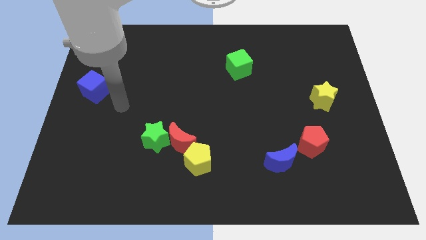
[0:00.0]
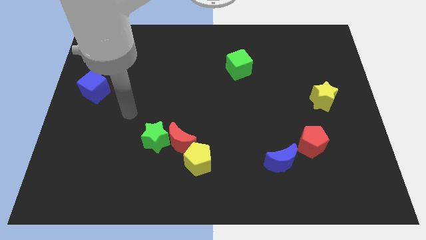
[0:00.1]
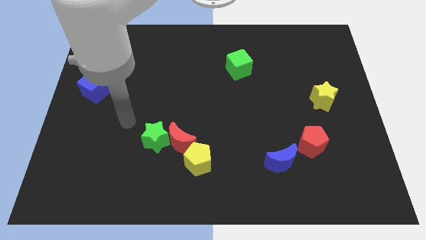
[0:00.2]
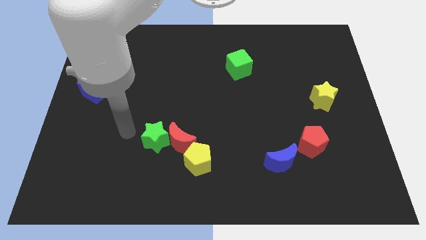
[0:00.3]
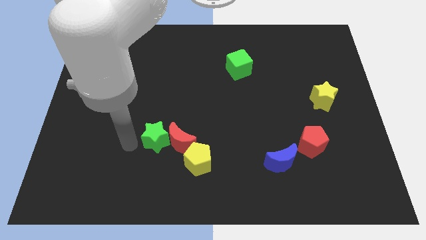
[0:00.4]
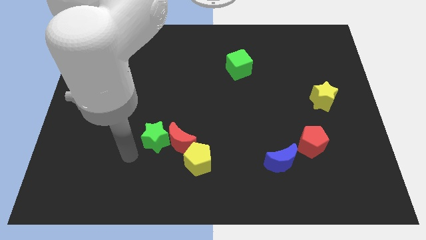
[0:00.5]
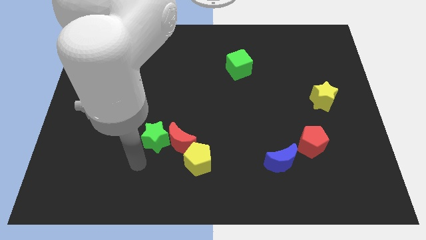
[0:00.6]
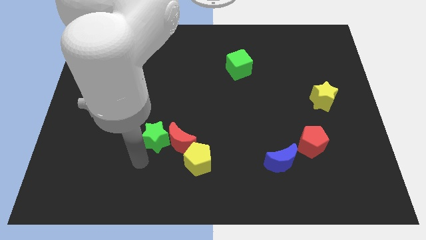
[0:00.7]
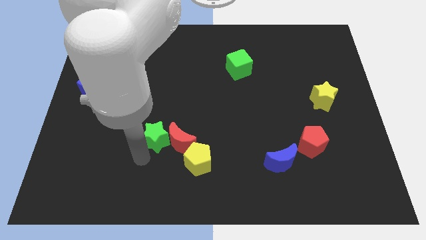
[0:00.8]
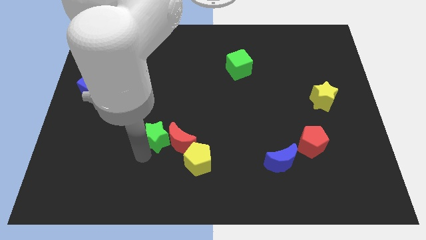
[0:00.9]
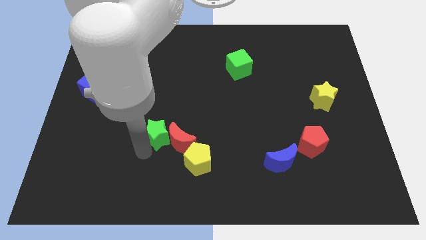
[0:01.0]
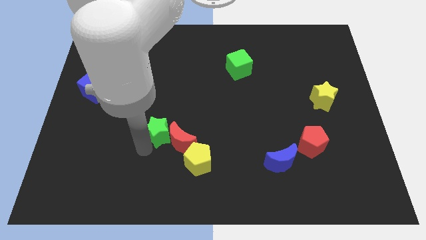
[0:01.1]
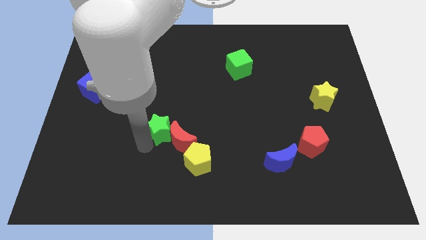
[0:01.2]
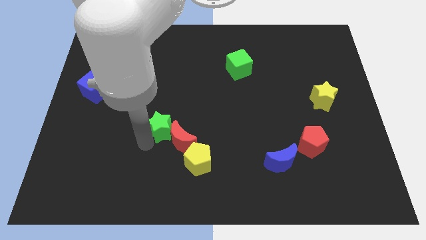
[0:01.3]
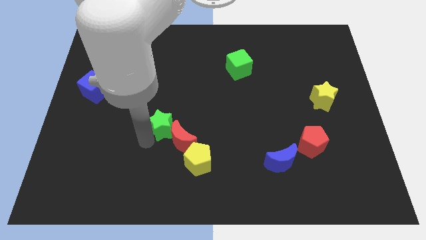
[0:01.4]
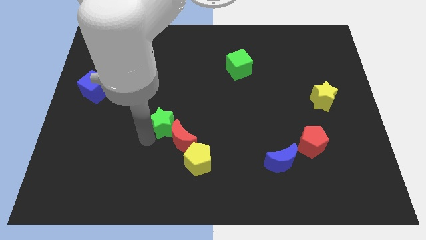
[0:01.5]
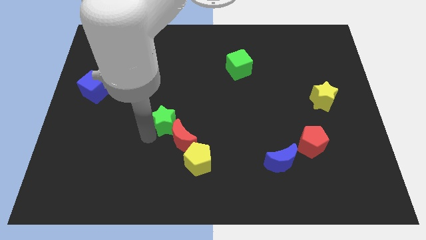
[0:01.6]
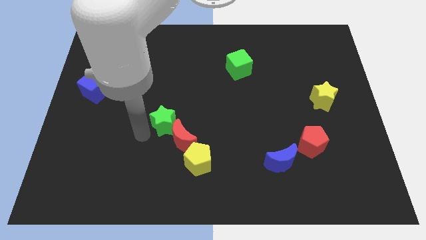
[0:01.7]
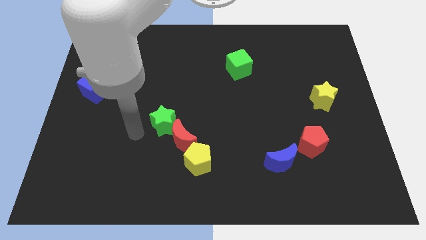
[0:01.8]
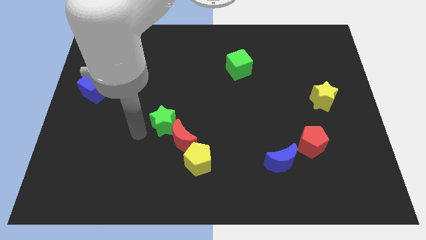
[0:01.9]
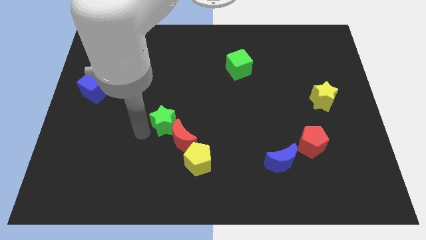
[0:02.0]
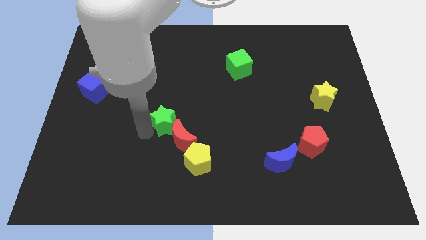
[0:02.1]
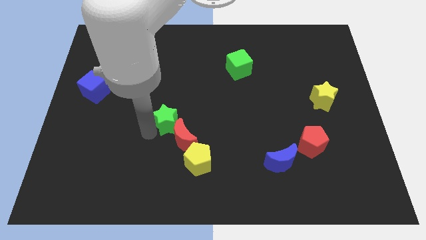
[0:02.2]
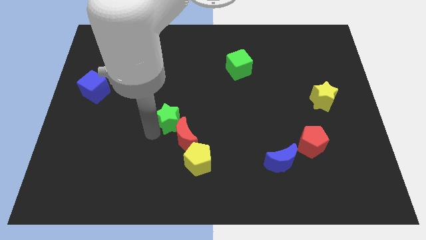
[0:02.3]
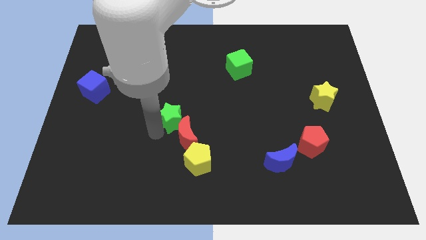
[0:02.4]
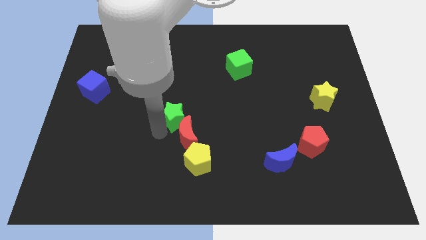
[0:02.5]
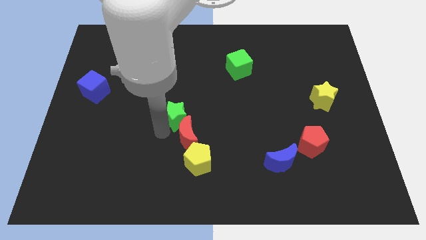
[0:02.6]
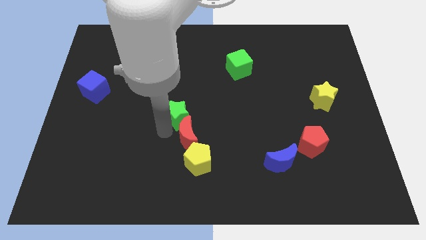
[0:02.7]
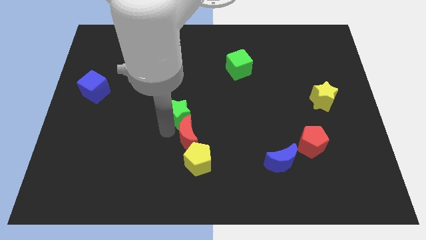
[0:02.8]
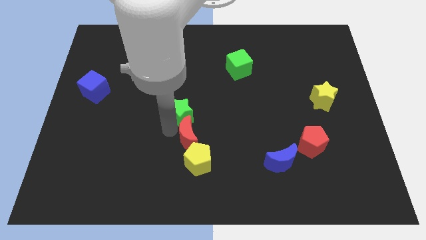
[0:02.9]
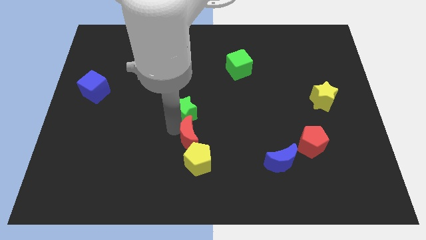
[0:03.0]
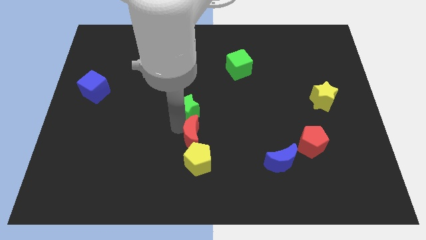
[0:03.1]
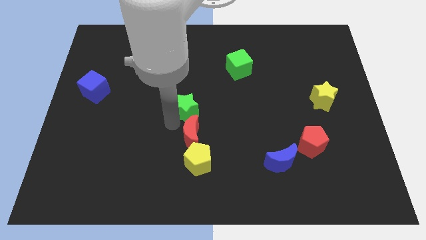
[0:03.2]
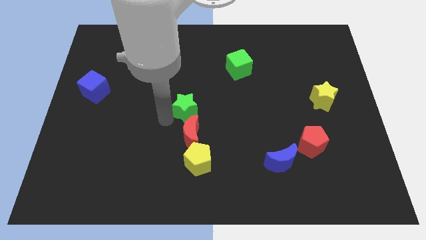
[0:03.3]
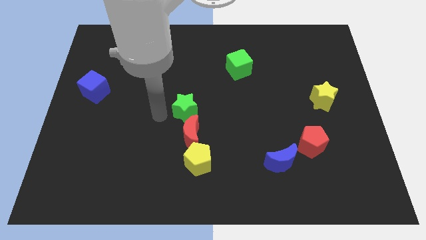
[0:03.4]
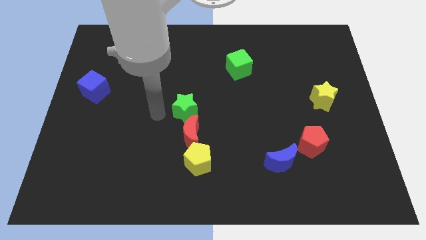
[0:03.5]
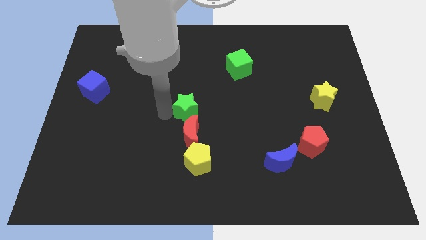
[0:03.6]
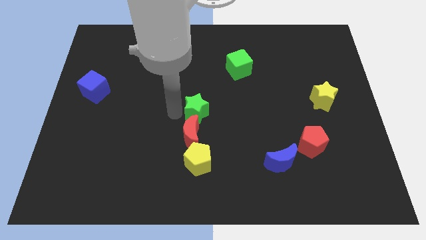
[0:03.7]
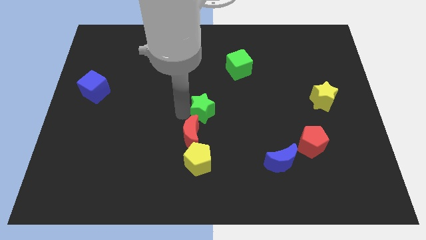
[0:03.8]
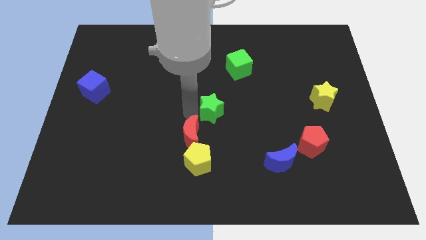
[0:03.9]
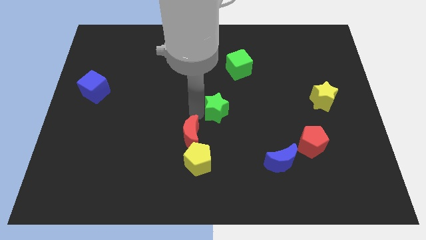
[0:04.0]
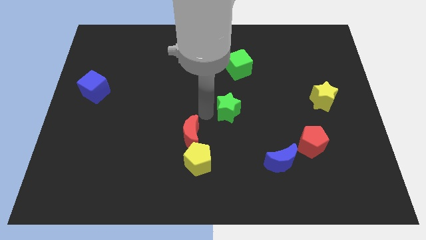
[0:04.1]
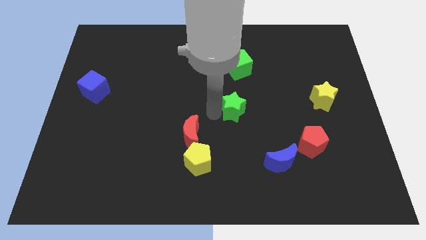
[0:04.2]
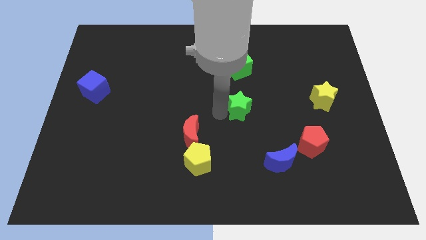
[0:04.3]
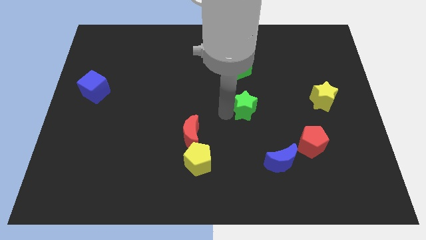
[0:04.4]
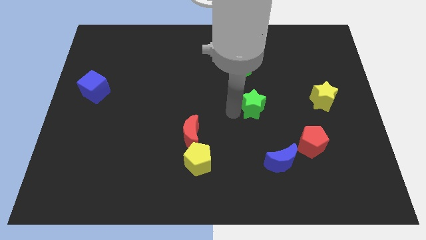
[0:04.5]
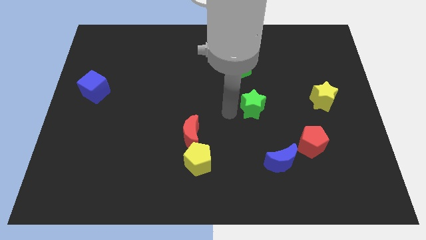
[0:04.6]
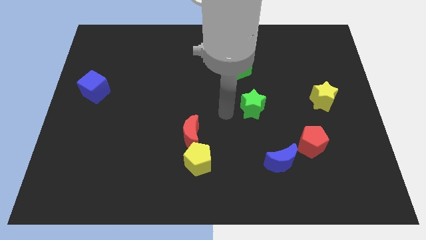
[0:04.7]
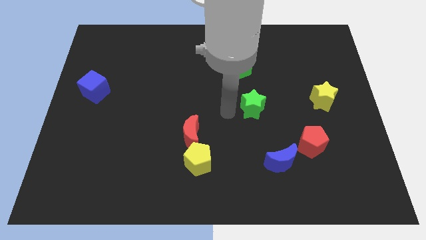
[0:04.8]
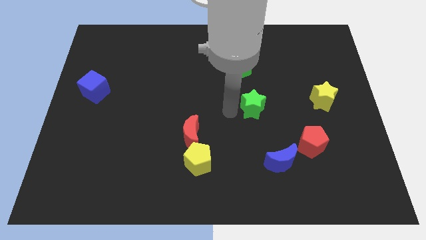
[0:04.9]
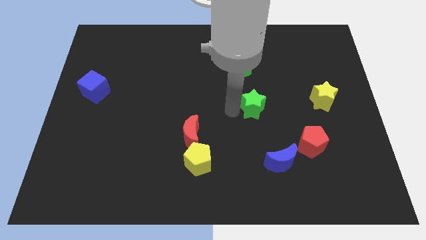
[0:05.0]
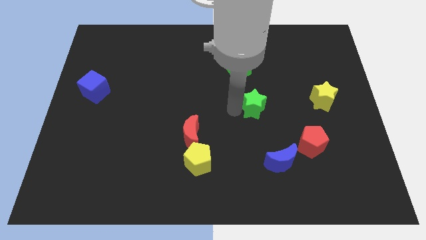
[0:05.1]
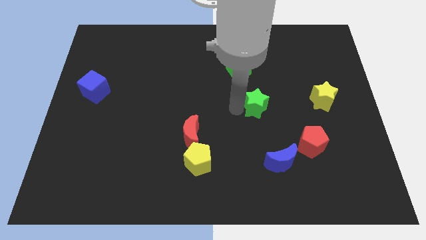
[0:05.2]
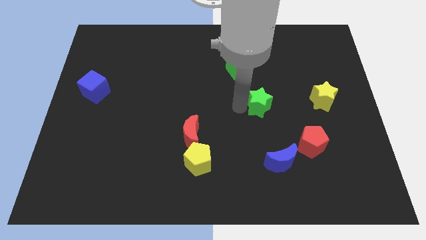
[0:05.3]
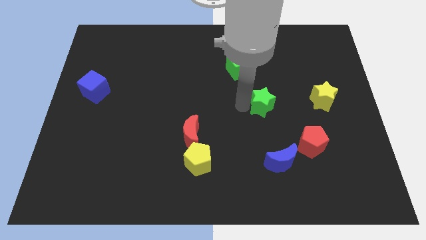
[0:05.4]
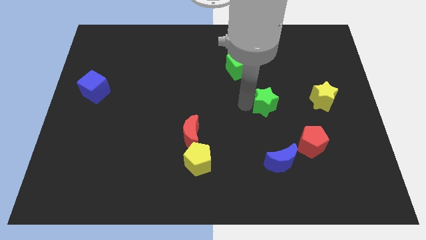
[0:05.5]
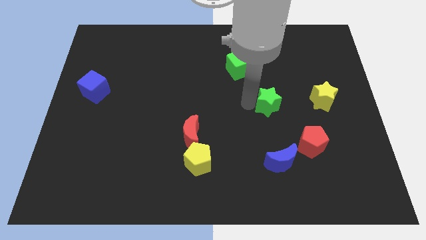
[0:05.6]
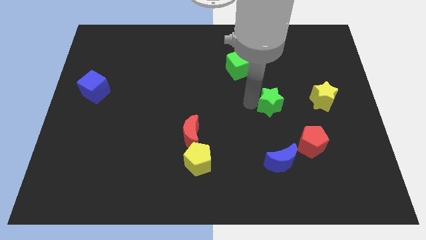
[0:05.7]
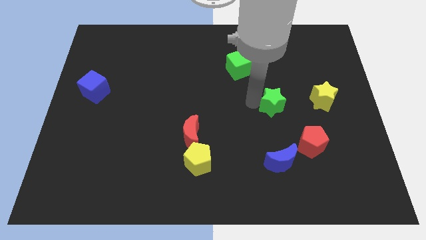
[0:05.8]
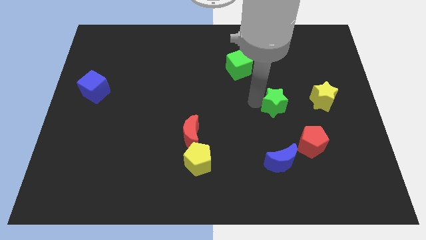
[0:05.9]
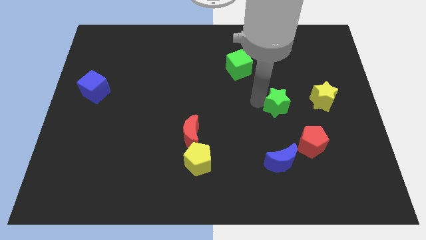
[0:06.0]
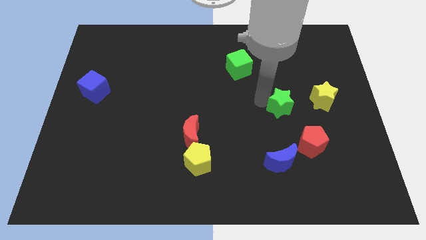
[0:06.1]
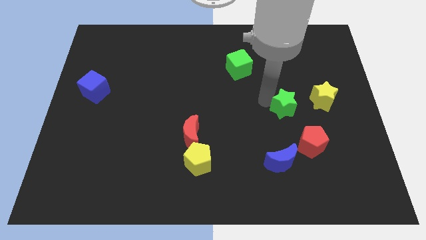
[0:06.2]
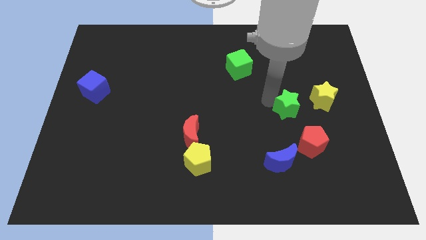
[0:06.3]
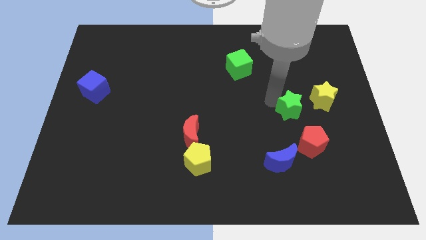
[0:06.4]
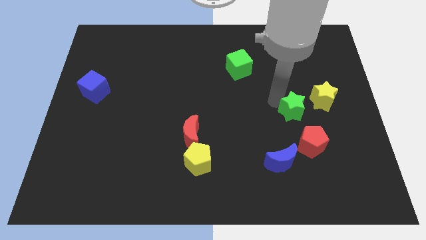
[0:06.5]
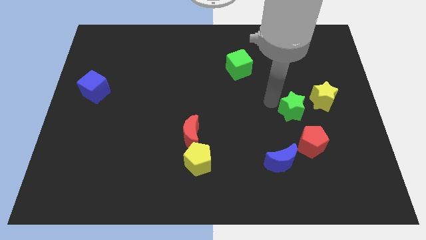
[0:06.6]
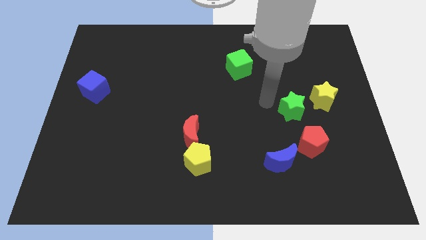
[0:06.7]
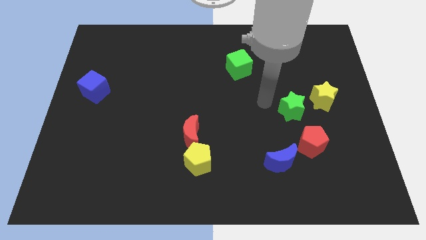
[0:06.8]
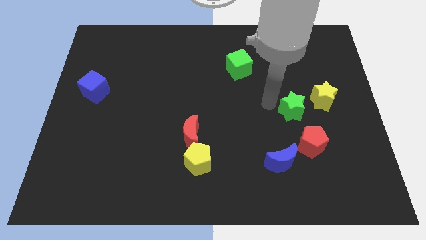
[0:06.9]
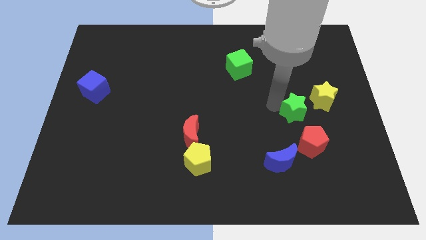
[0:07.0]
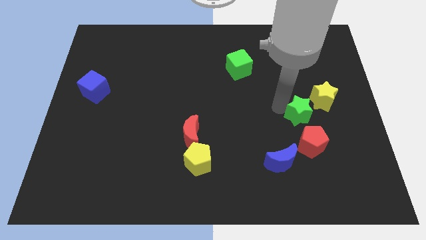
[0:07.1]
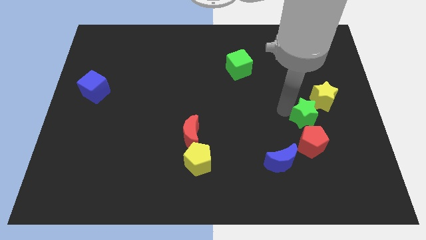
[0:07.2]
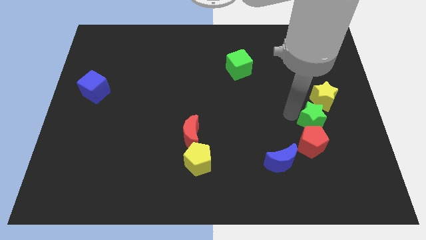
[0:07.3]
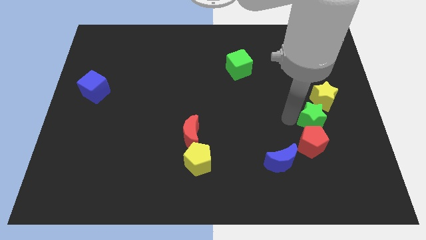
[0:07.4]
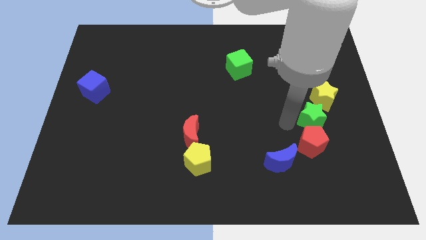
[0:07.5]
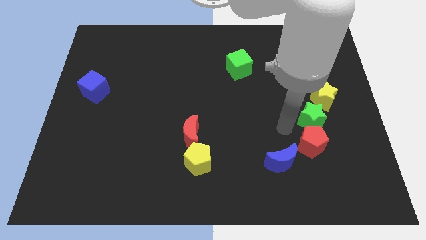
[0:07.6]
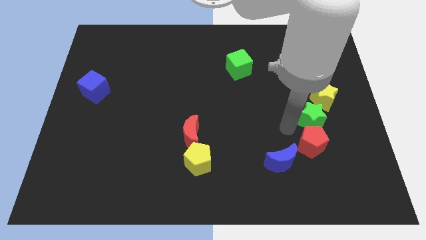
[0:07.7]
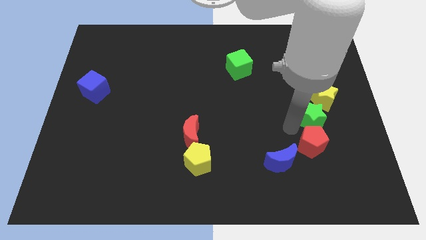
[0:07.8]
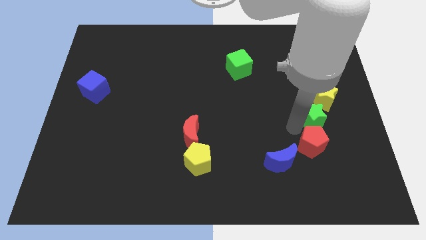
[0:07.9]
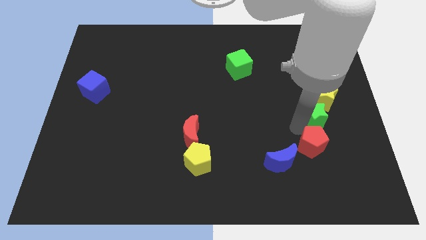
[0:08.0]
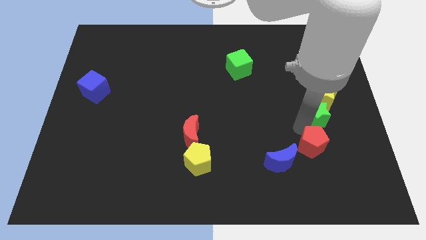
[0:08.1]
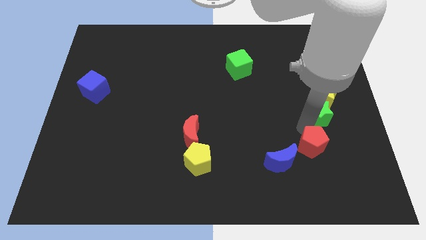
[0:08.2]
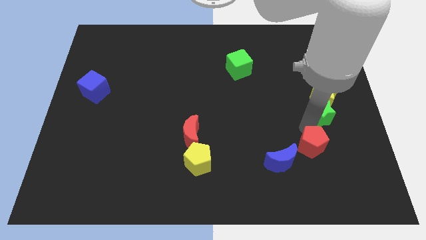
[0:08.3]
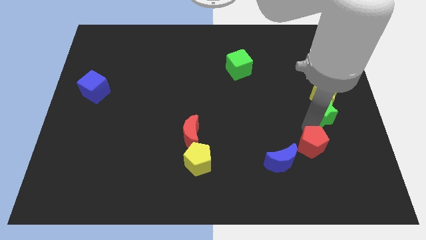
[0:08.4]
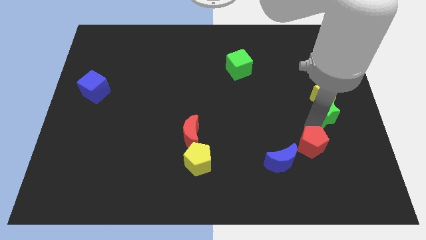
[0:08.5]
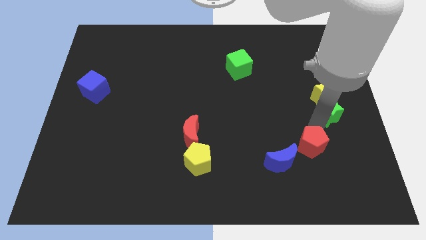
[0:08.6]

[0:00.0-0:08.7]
put the green star to the right side of the board
